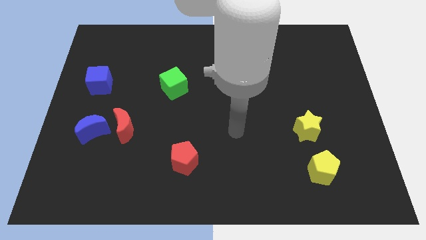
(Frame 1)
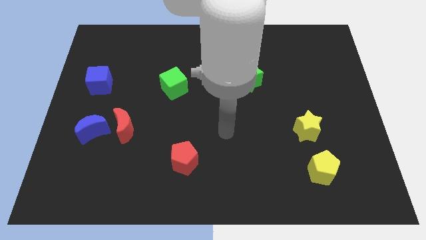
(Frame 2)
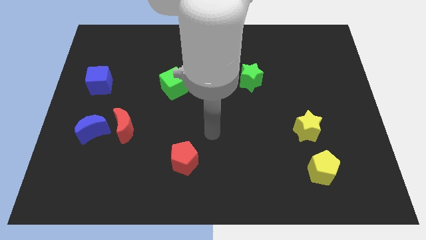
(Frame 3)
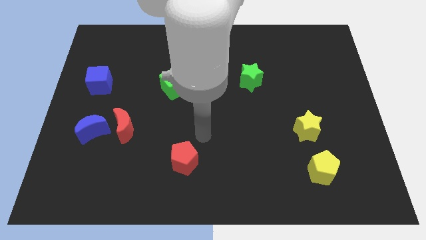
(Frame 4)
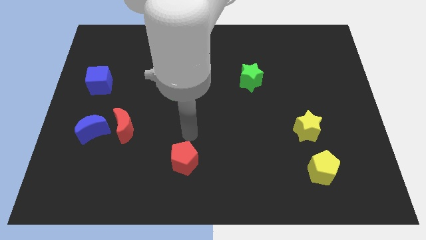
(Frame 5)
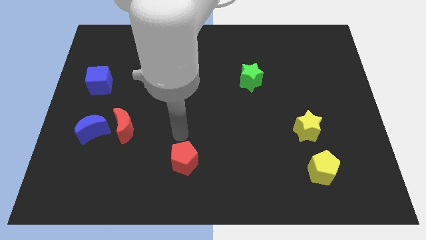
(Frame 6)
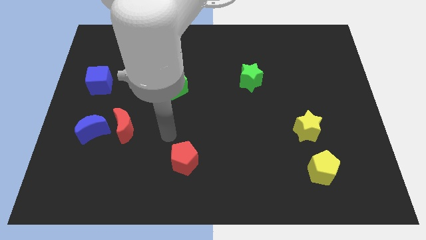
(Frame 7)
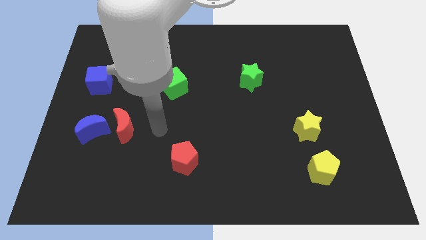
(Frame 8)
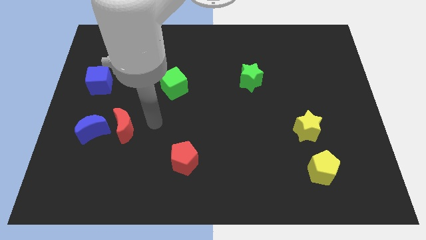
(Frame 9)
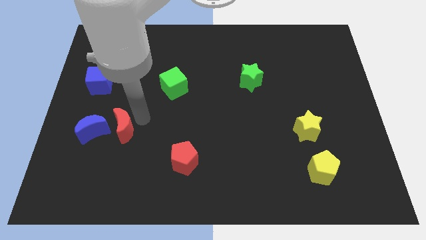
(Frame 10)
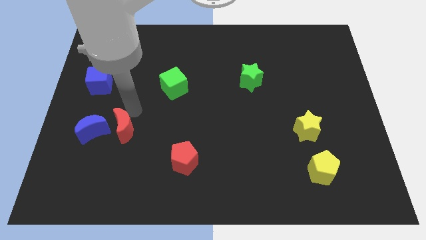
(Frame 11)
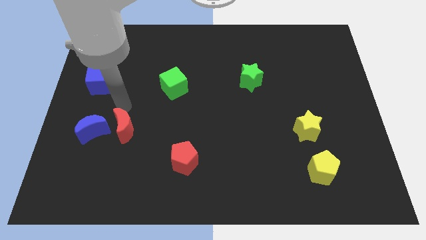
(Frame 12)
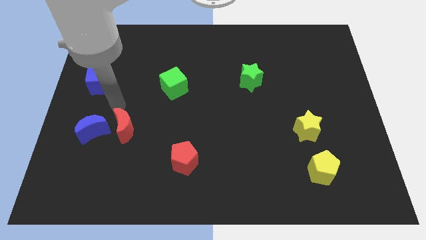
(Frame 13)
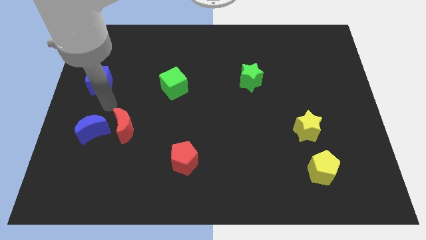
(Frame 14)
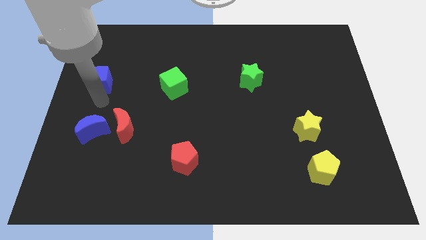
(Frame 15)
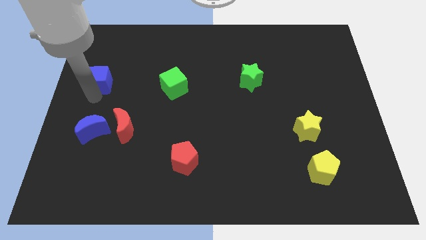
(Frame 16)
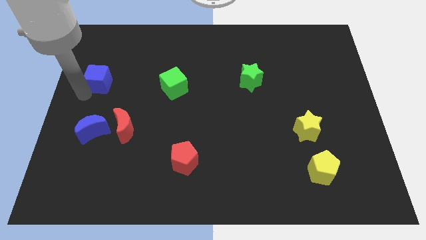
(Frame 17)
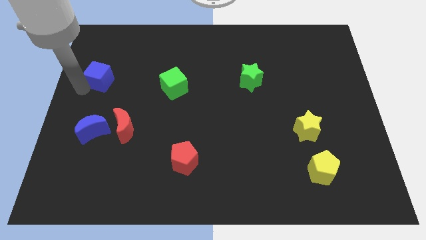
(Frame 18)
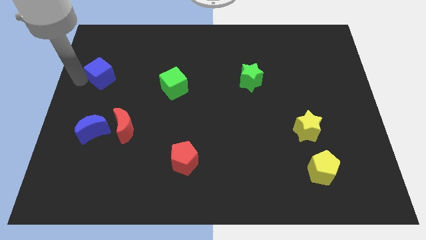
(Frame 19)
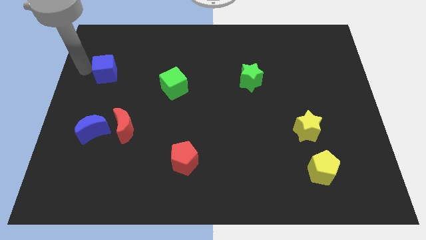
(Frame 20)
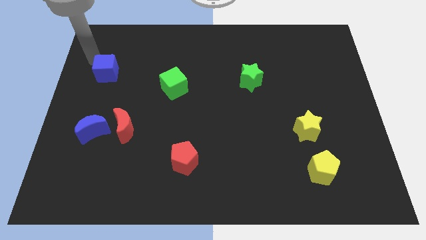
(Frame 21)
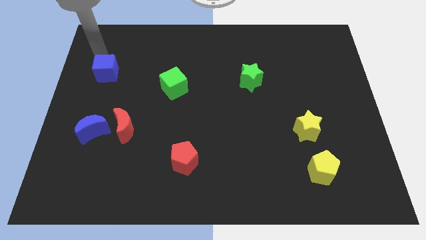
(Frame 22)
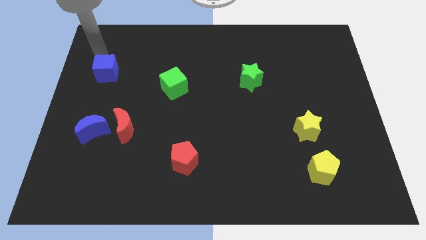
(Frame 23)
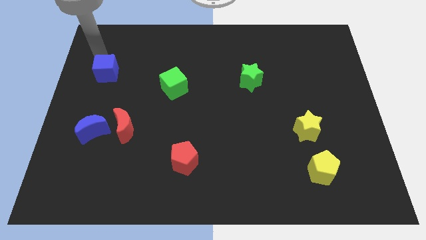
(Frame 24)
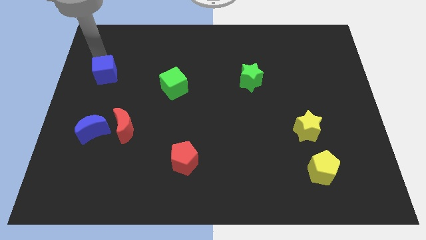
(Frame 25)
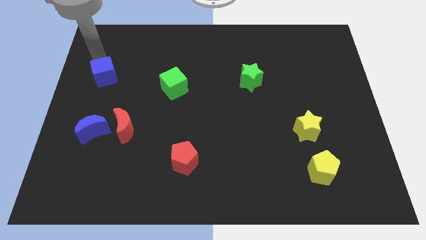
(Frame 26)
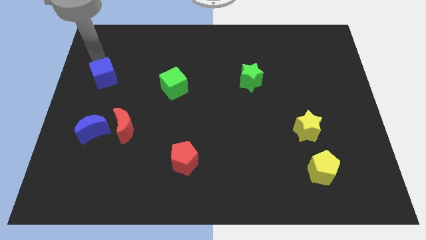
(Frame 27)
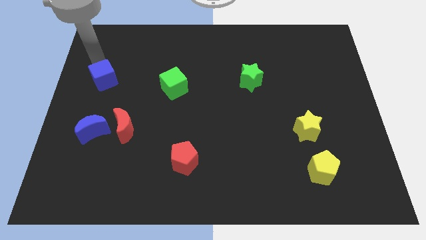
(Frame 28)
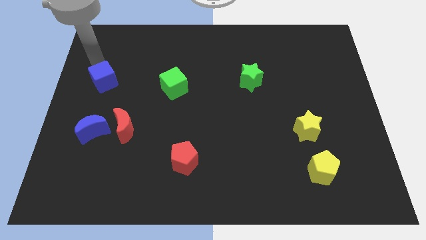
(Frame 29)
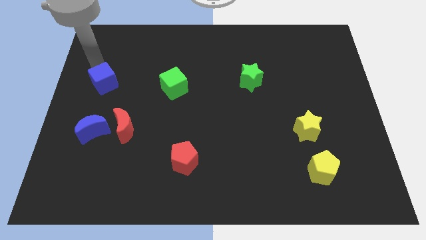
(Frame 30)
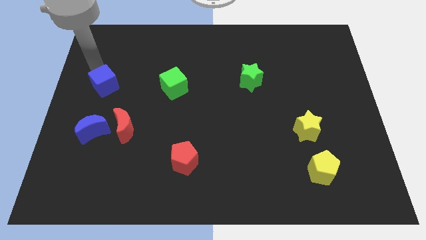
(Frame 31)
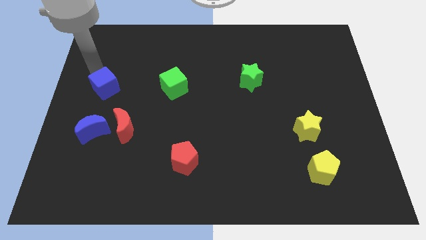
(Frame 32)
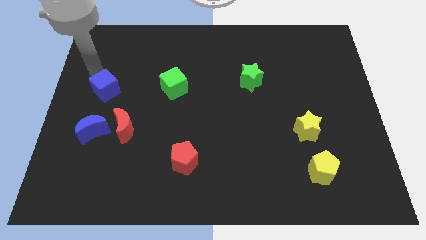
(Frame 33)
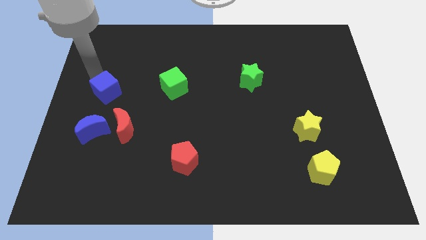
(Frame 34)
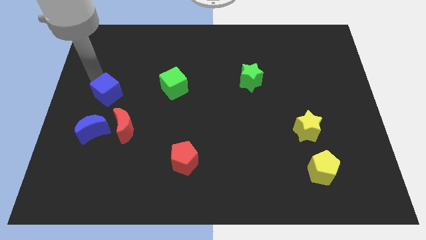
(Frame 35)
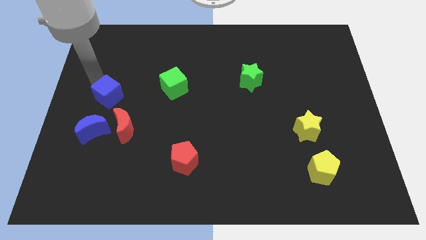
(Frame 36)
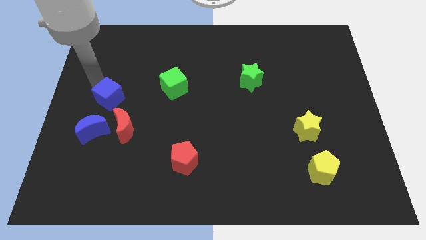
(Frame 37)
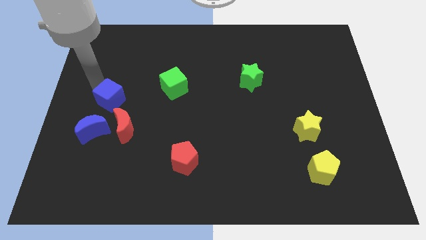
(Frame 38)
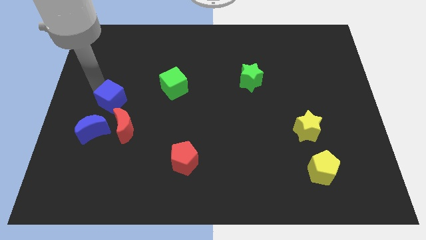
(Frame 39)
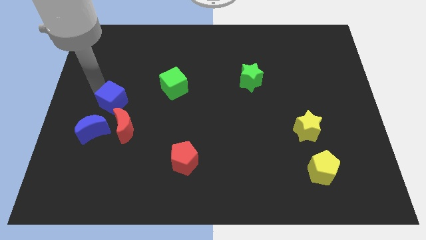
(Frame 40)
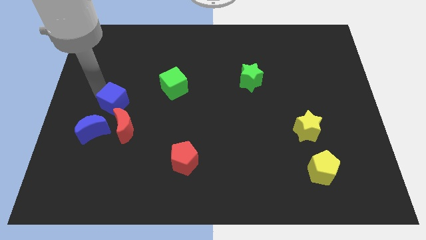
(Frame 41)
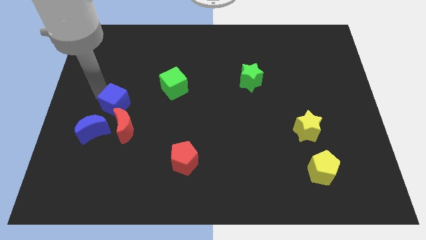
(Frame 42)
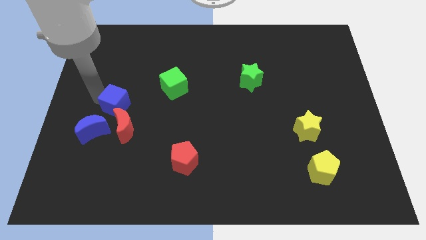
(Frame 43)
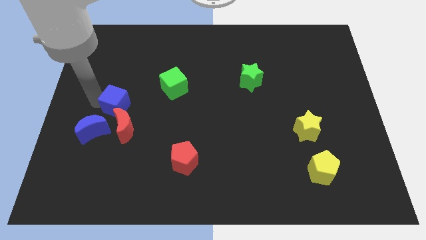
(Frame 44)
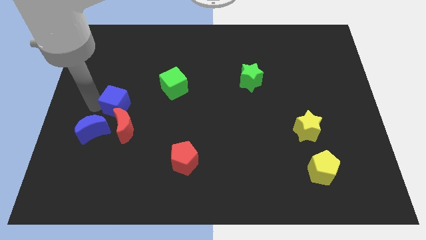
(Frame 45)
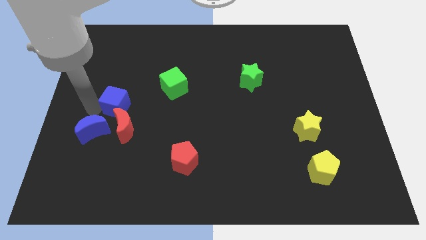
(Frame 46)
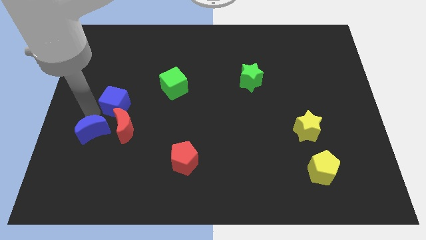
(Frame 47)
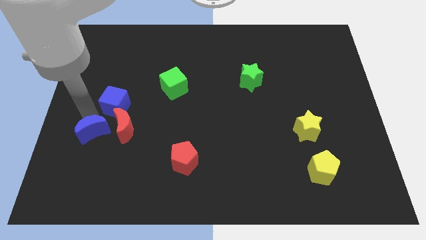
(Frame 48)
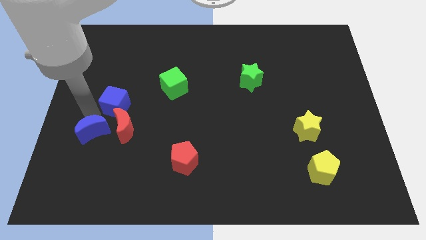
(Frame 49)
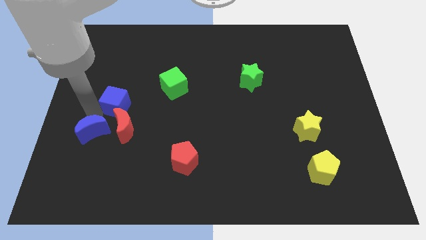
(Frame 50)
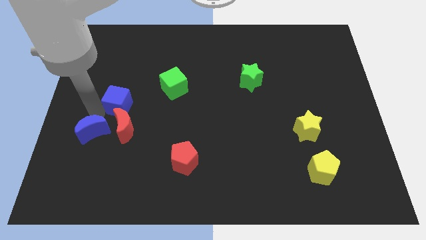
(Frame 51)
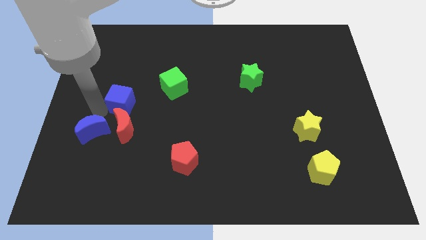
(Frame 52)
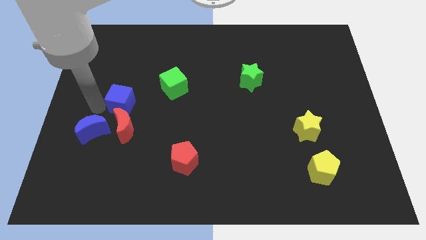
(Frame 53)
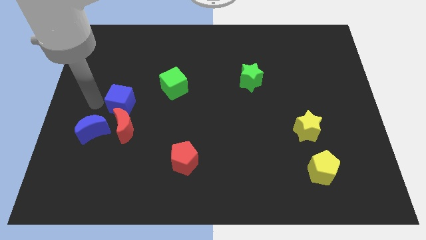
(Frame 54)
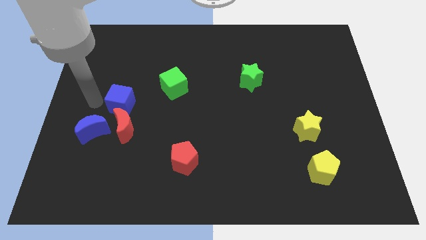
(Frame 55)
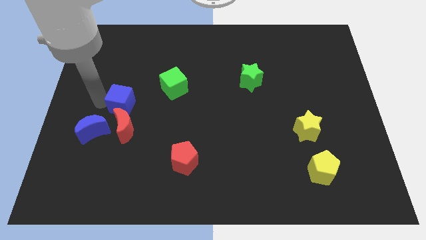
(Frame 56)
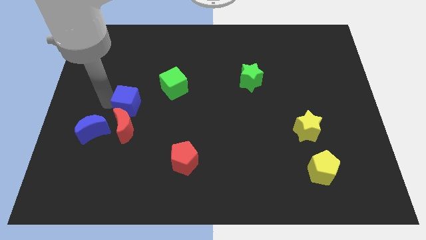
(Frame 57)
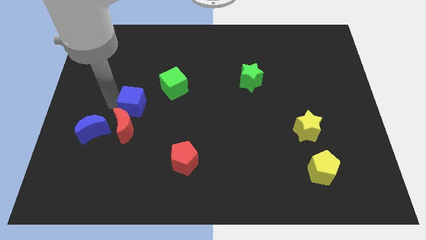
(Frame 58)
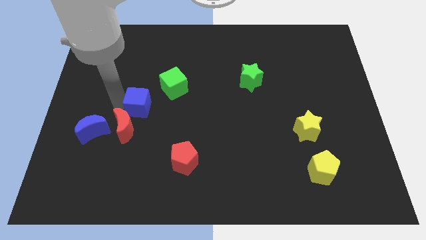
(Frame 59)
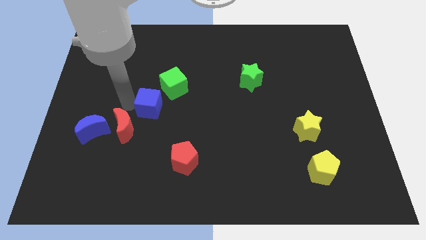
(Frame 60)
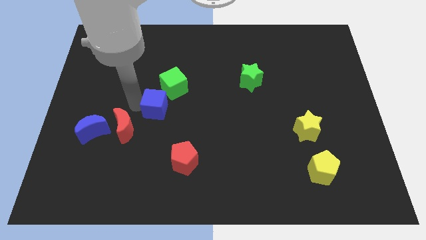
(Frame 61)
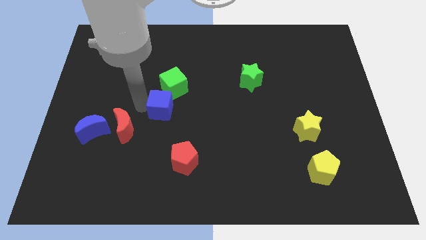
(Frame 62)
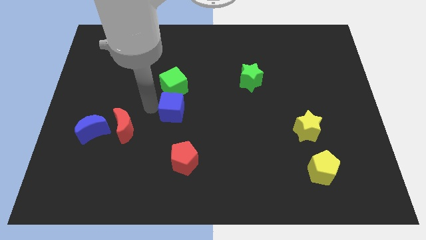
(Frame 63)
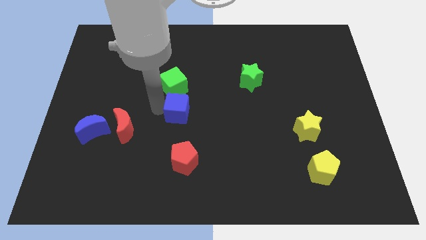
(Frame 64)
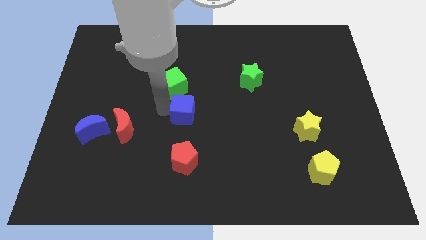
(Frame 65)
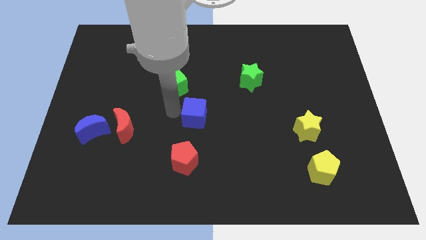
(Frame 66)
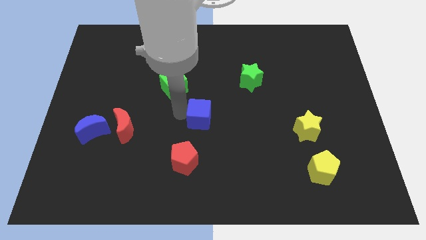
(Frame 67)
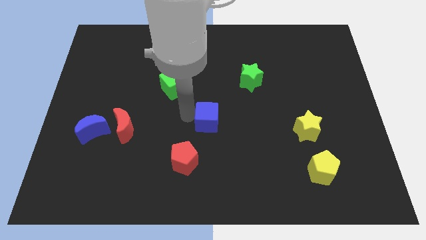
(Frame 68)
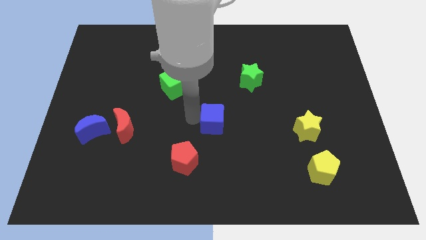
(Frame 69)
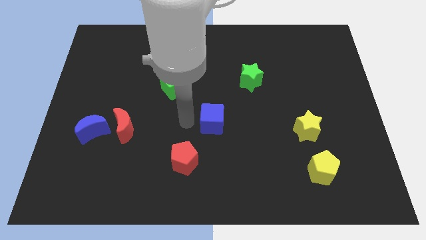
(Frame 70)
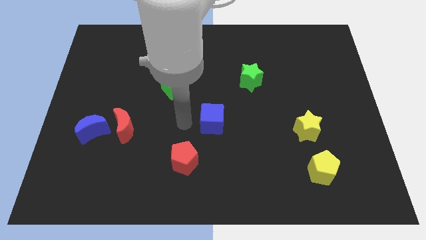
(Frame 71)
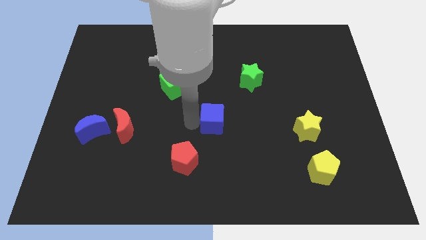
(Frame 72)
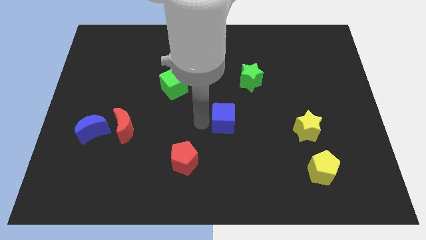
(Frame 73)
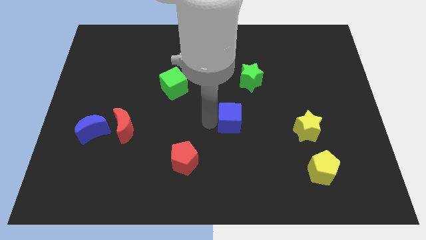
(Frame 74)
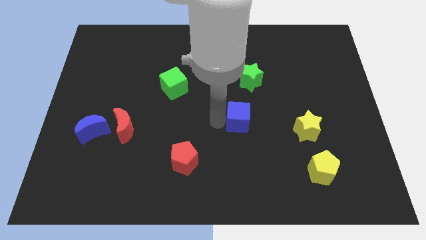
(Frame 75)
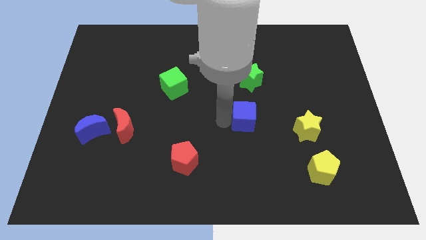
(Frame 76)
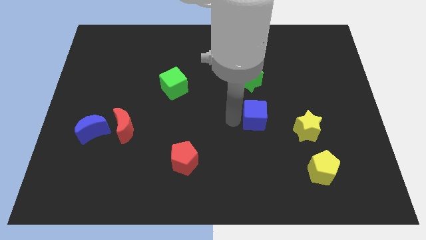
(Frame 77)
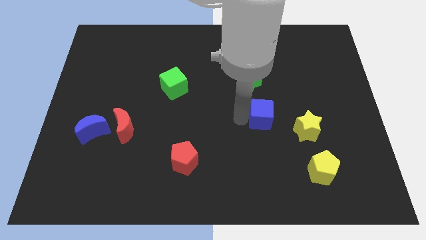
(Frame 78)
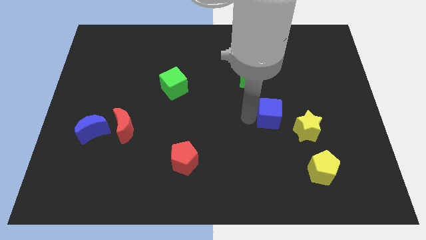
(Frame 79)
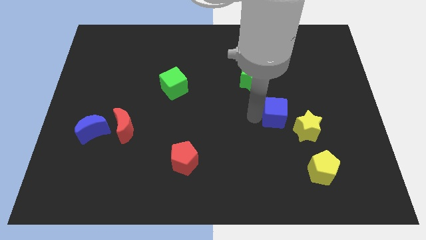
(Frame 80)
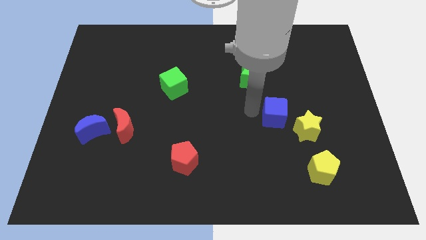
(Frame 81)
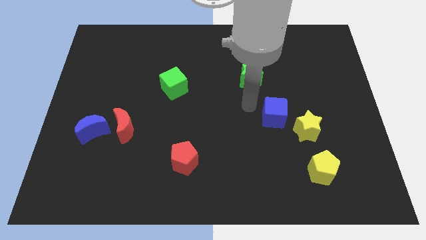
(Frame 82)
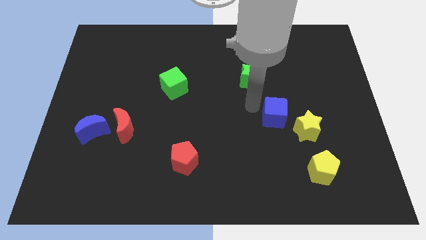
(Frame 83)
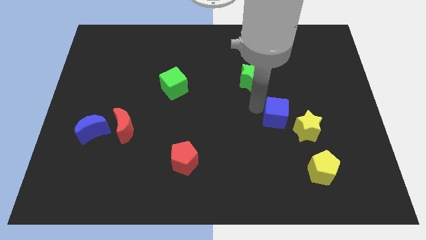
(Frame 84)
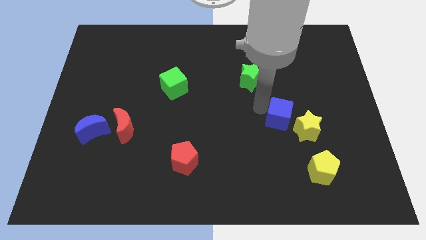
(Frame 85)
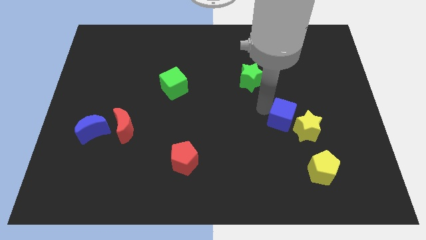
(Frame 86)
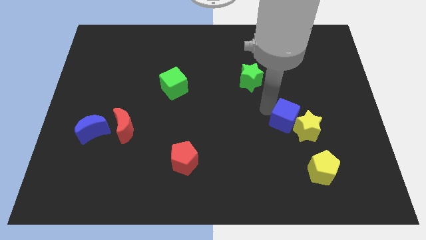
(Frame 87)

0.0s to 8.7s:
move the blue cube to the yellow star
